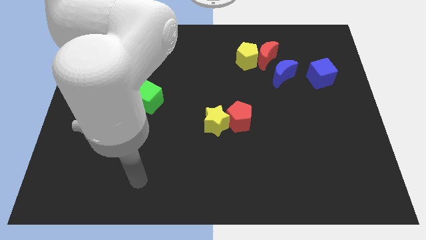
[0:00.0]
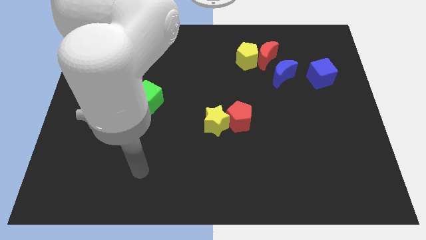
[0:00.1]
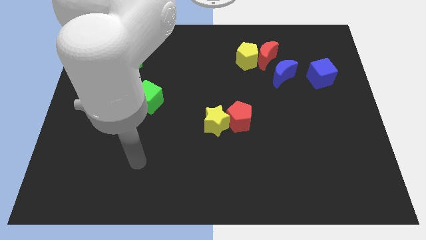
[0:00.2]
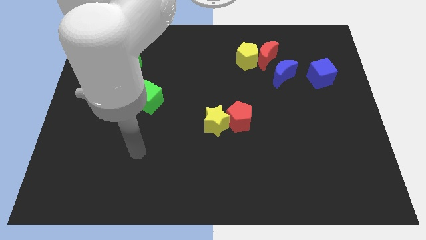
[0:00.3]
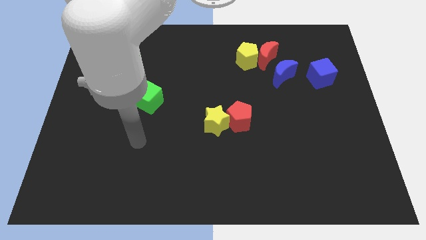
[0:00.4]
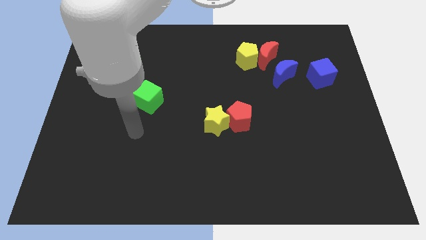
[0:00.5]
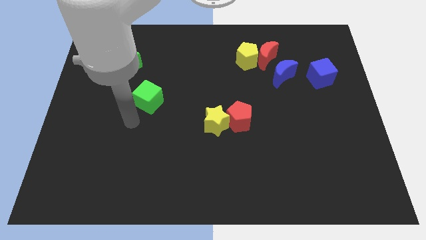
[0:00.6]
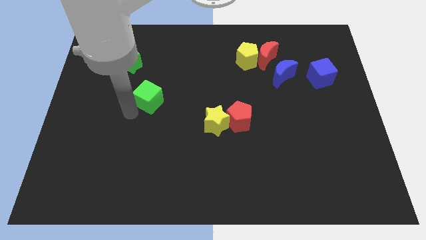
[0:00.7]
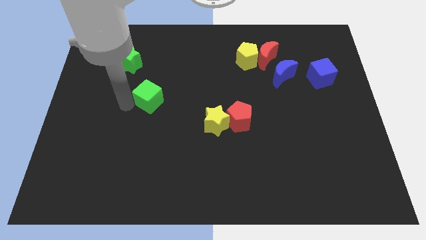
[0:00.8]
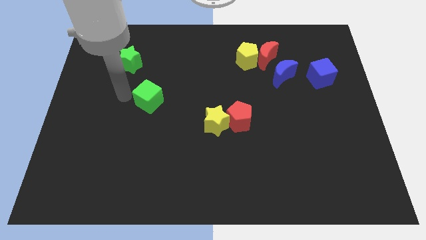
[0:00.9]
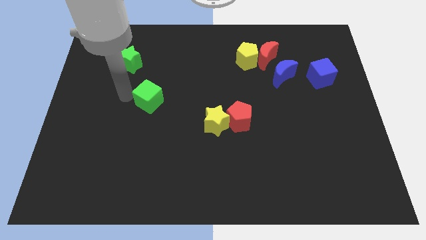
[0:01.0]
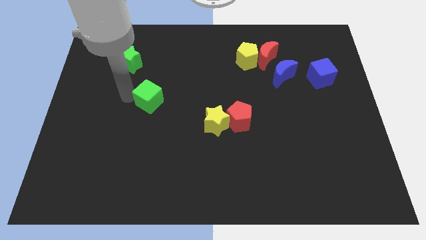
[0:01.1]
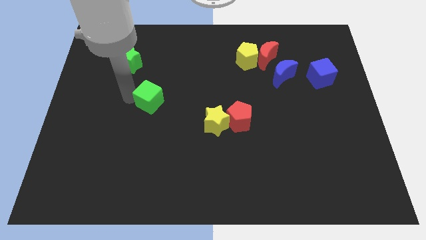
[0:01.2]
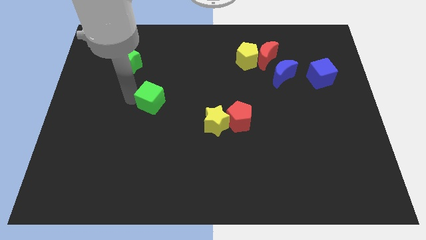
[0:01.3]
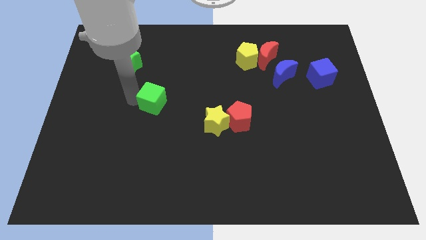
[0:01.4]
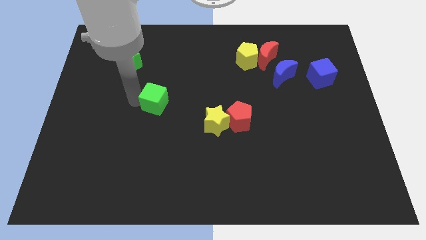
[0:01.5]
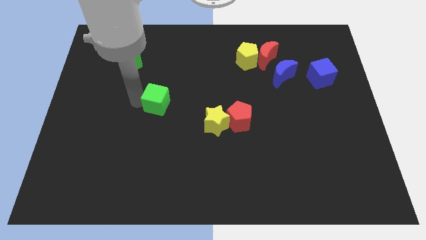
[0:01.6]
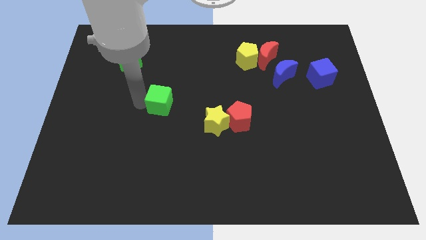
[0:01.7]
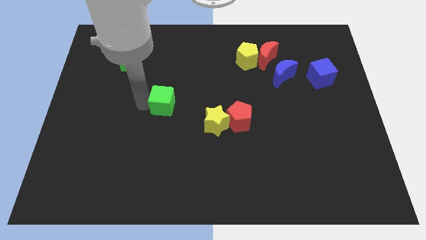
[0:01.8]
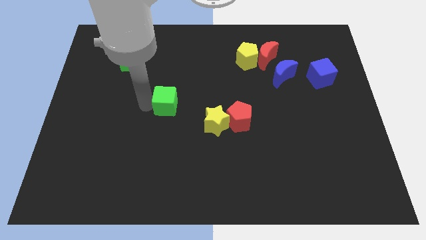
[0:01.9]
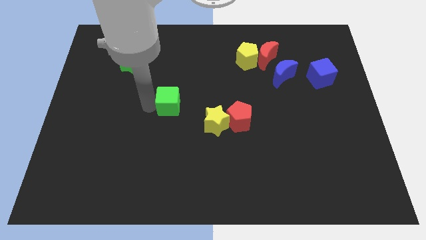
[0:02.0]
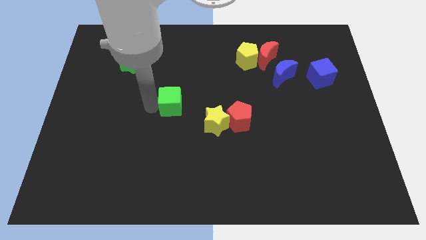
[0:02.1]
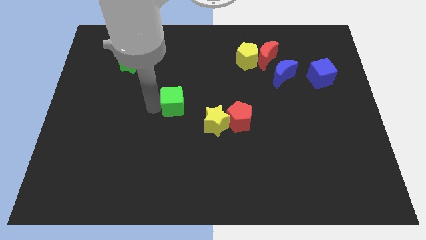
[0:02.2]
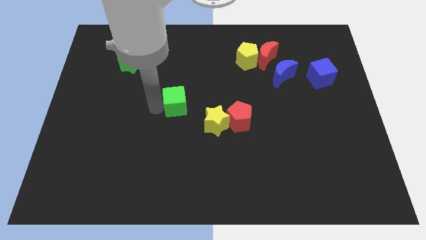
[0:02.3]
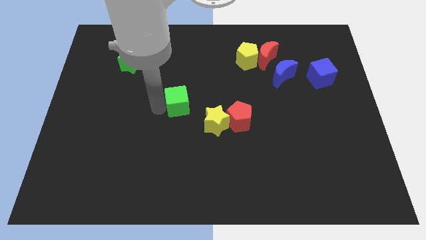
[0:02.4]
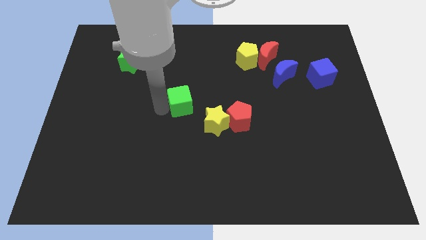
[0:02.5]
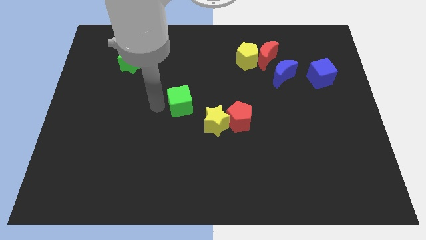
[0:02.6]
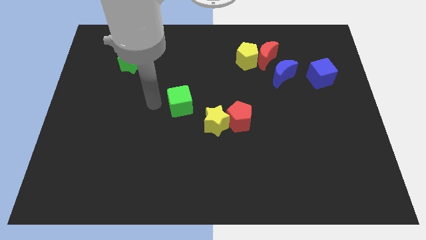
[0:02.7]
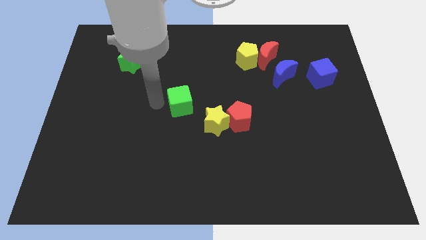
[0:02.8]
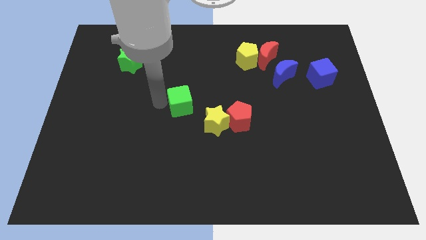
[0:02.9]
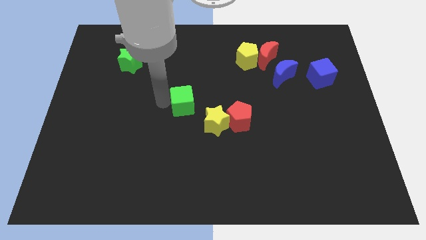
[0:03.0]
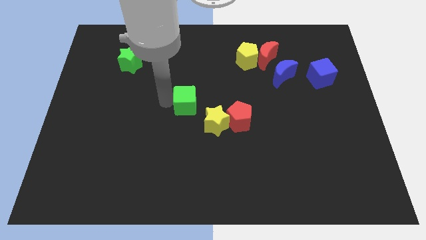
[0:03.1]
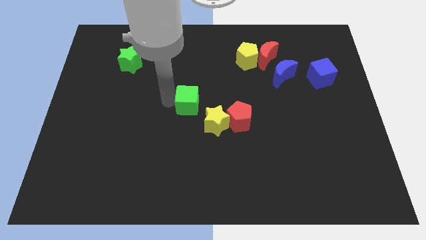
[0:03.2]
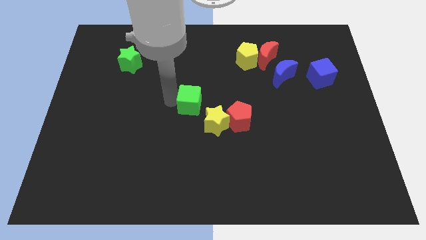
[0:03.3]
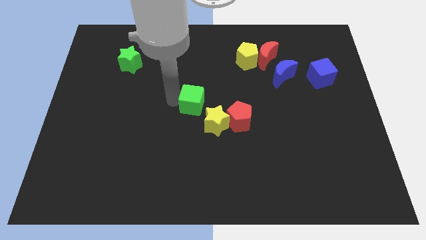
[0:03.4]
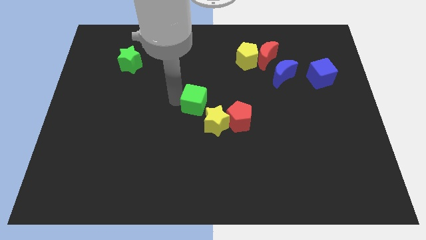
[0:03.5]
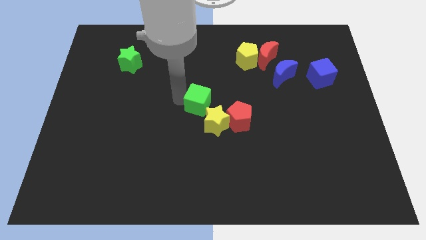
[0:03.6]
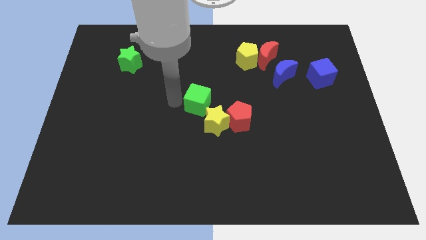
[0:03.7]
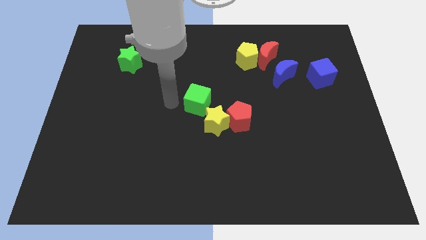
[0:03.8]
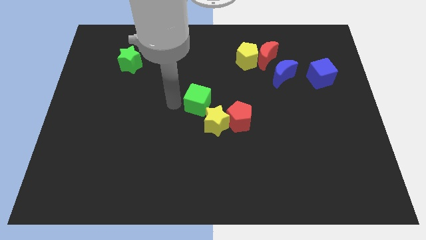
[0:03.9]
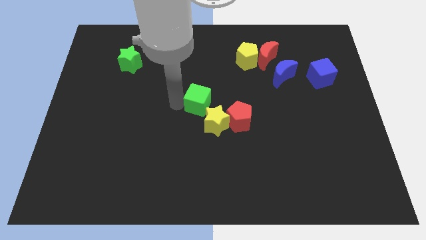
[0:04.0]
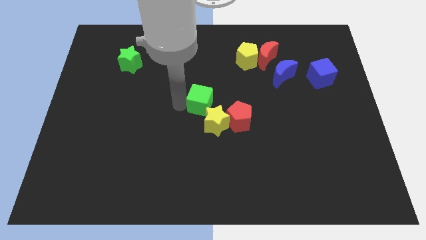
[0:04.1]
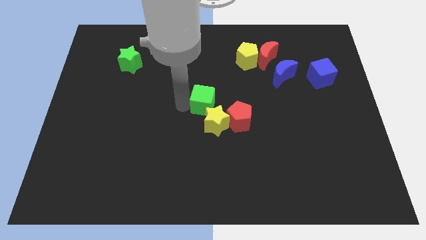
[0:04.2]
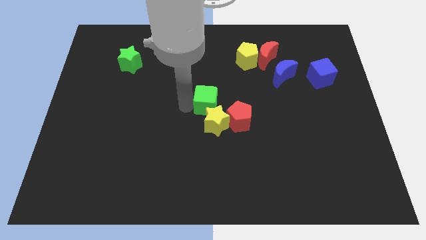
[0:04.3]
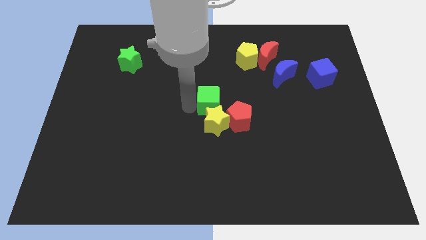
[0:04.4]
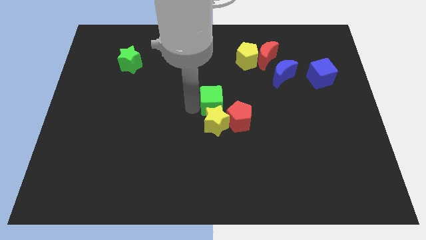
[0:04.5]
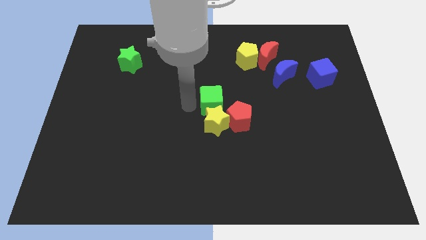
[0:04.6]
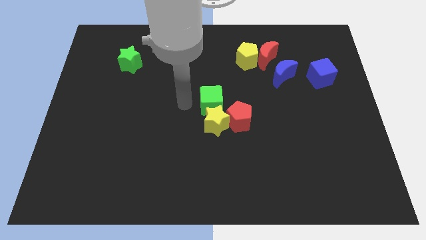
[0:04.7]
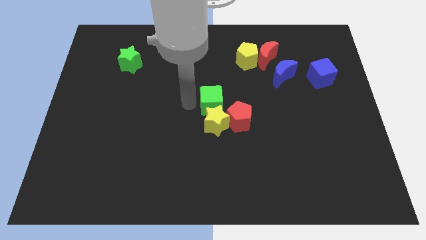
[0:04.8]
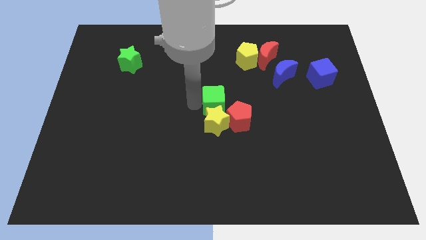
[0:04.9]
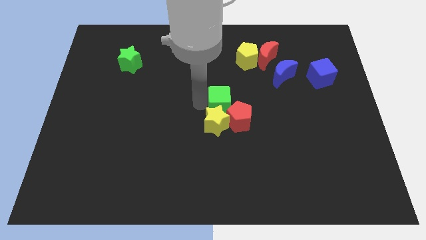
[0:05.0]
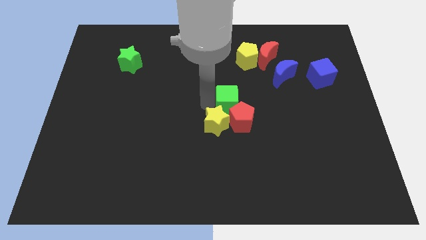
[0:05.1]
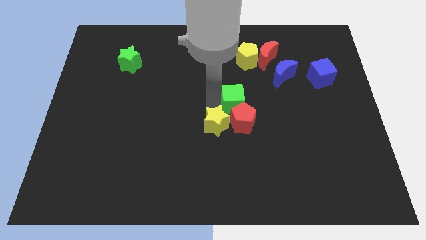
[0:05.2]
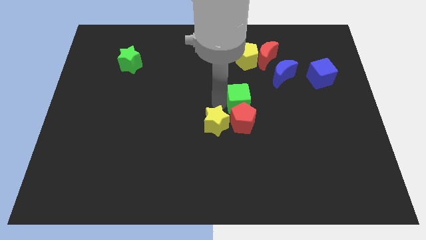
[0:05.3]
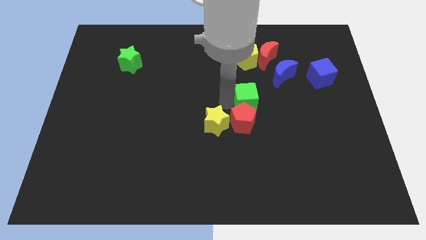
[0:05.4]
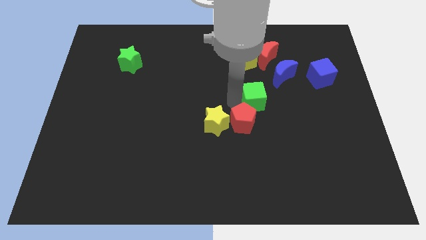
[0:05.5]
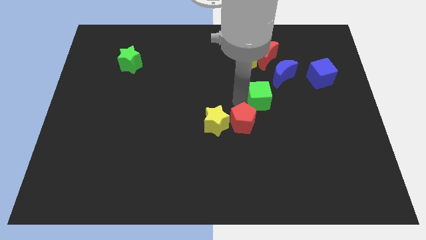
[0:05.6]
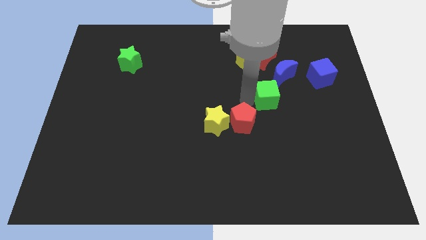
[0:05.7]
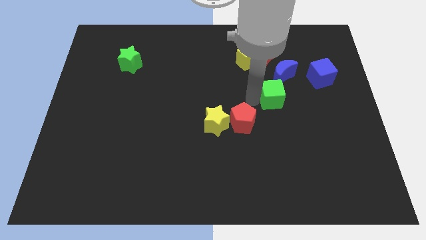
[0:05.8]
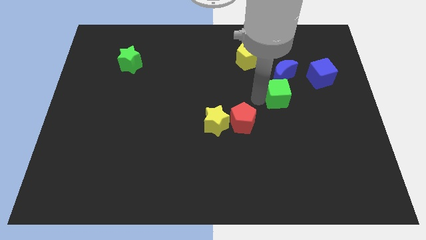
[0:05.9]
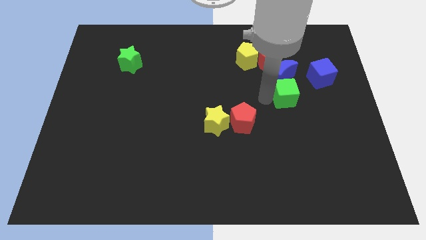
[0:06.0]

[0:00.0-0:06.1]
slide the green cube diagonally down and to the left of the blue cube
